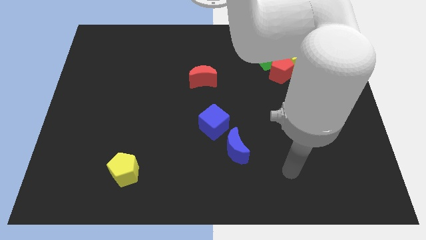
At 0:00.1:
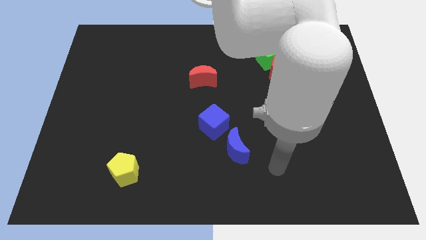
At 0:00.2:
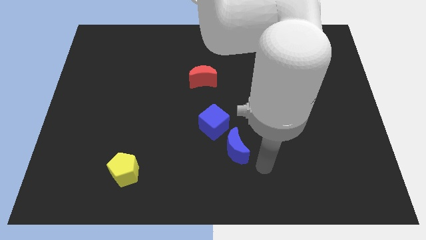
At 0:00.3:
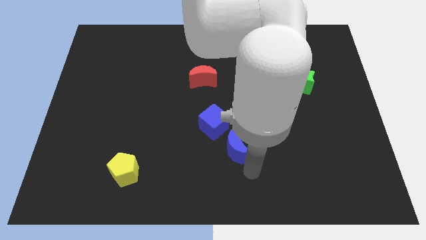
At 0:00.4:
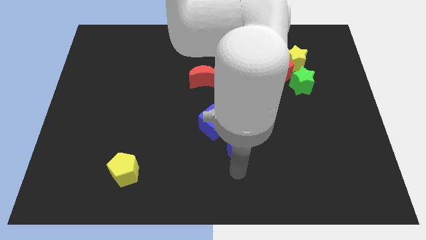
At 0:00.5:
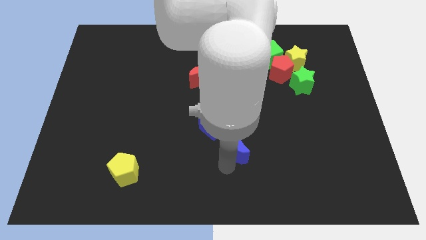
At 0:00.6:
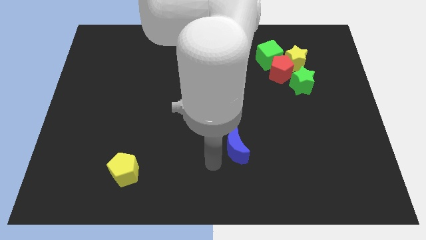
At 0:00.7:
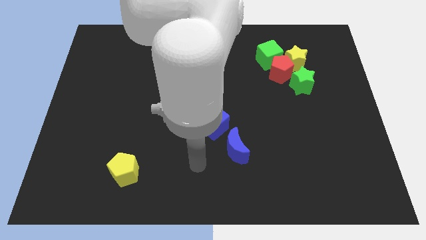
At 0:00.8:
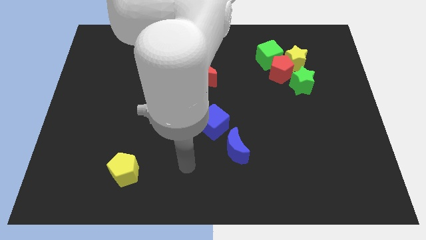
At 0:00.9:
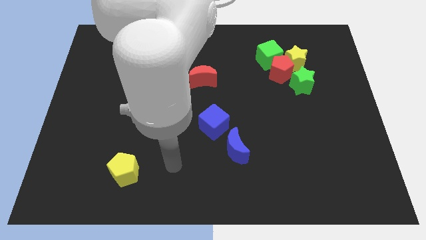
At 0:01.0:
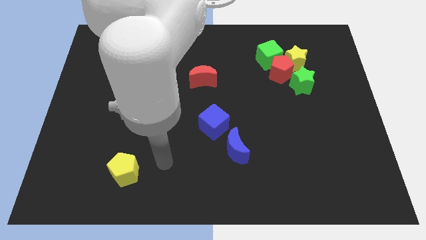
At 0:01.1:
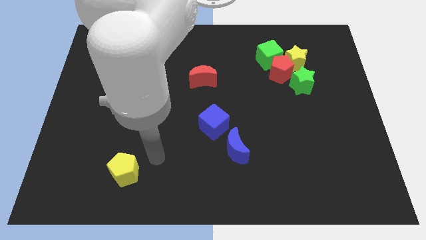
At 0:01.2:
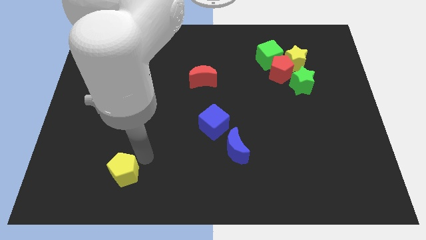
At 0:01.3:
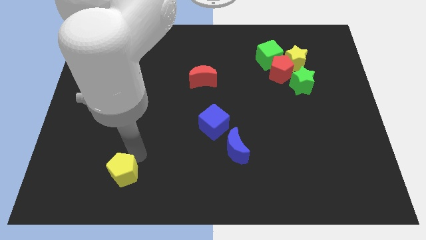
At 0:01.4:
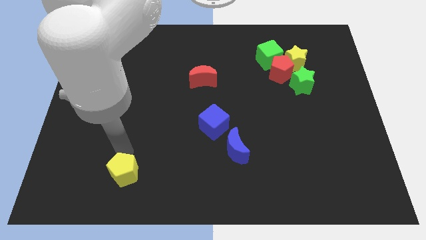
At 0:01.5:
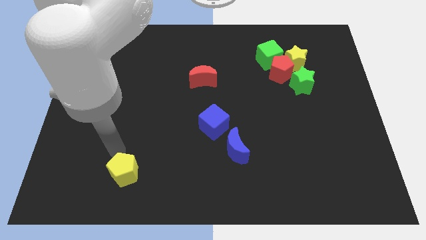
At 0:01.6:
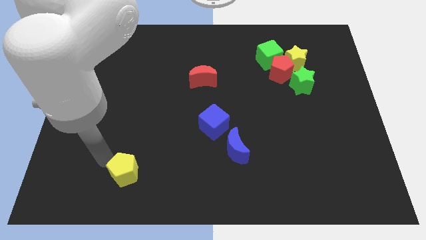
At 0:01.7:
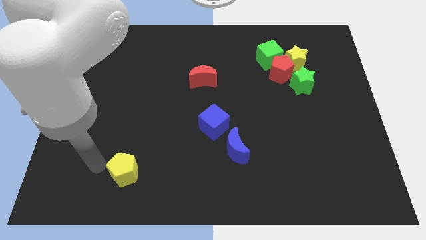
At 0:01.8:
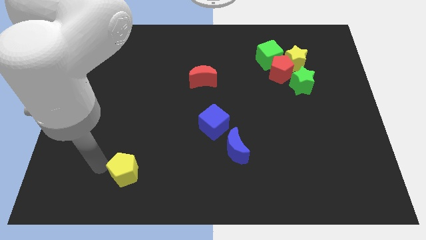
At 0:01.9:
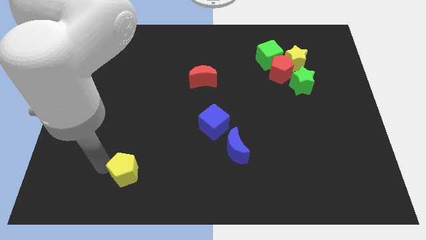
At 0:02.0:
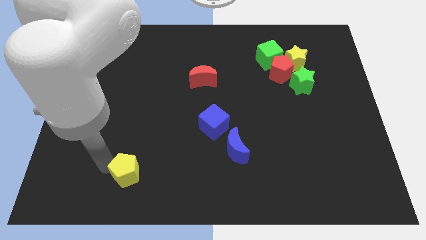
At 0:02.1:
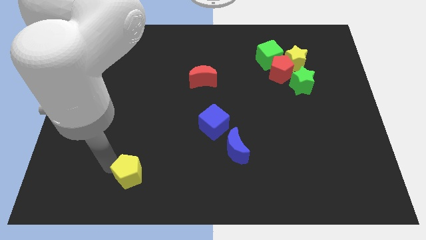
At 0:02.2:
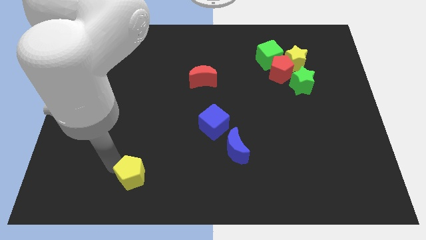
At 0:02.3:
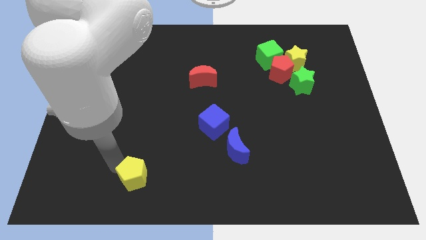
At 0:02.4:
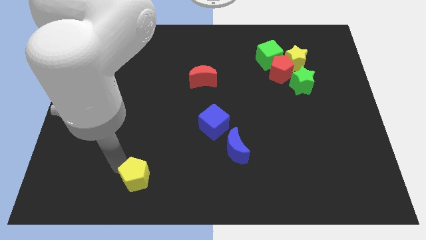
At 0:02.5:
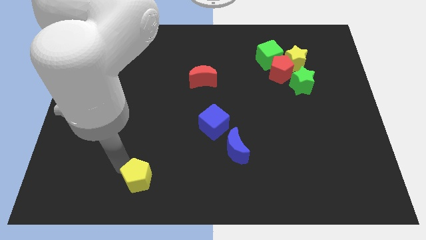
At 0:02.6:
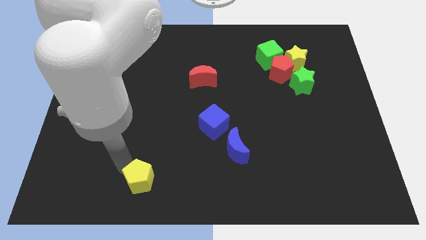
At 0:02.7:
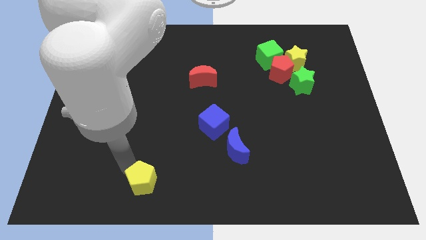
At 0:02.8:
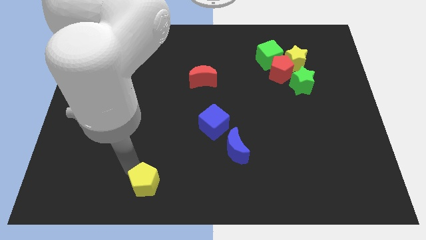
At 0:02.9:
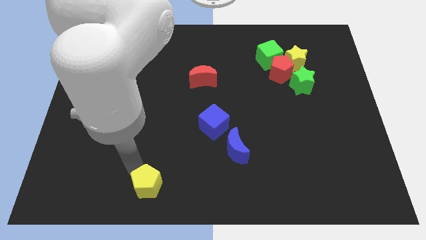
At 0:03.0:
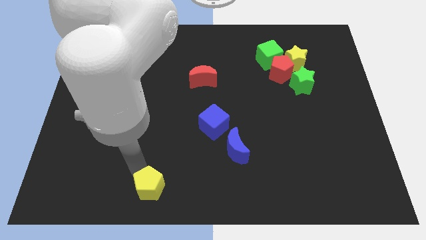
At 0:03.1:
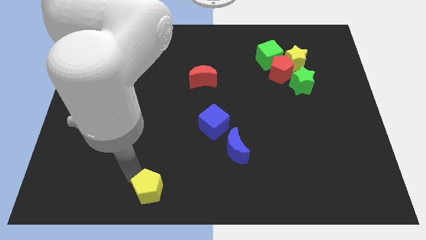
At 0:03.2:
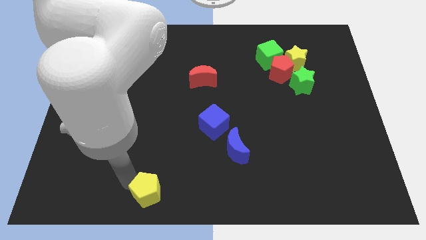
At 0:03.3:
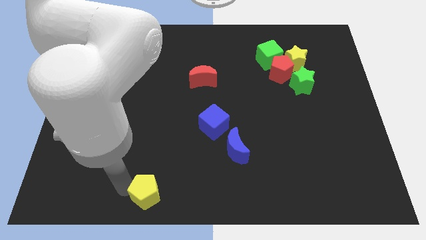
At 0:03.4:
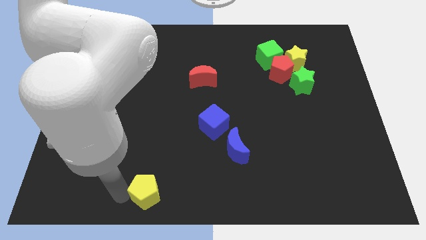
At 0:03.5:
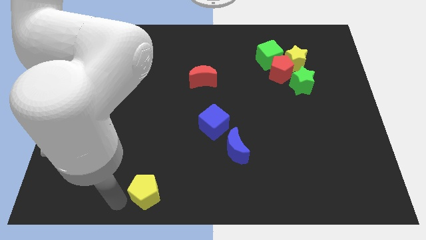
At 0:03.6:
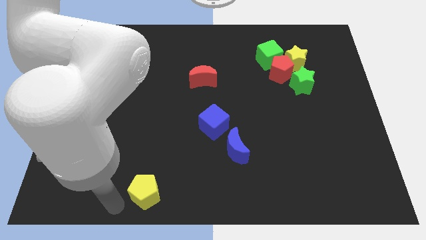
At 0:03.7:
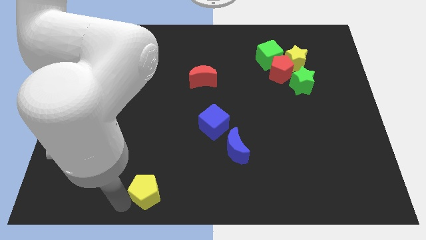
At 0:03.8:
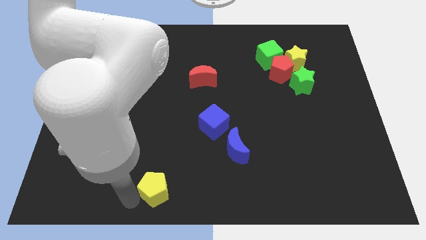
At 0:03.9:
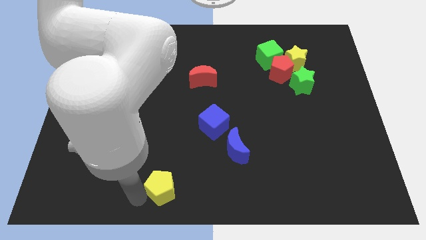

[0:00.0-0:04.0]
slightly slide the yellow pentagon right

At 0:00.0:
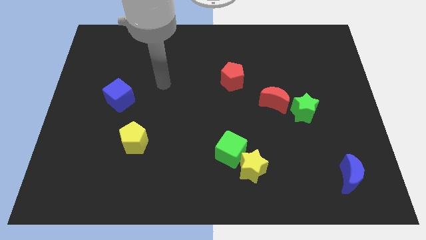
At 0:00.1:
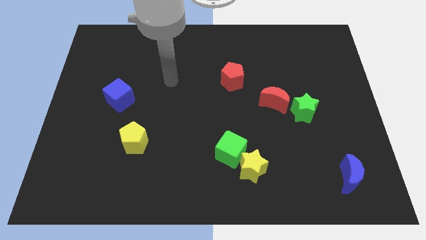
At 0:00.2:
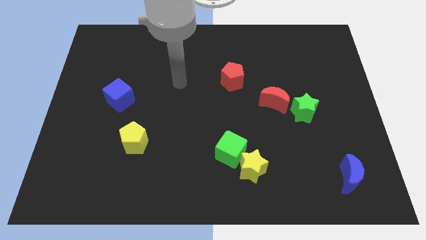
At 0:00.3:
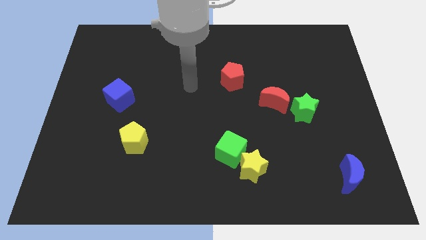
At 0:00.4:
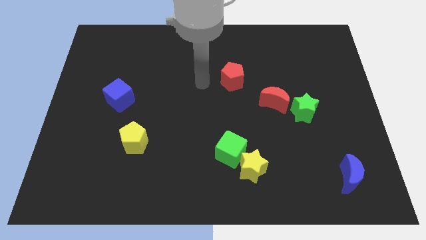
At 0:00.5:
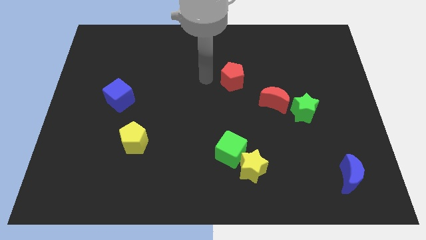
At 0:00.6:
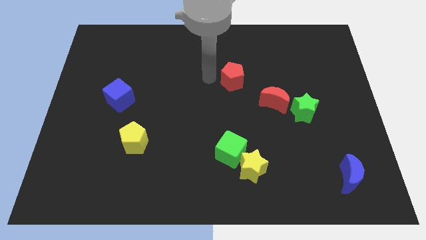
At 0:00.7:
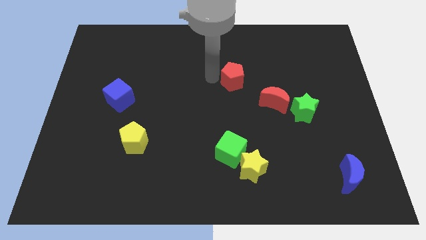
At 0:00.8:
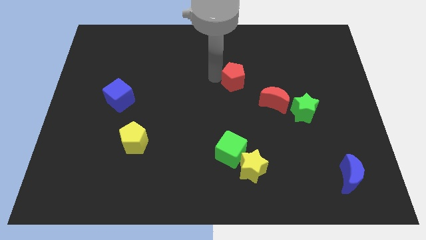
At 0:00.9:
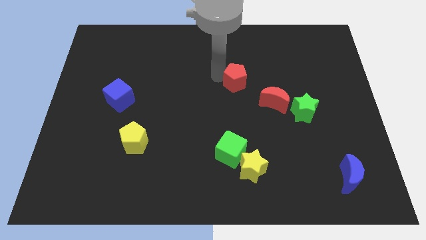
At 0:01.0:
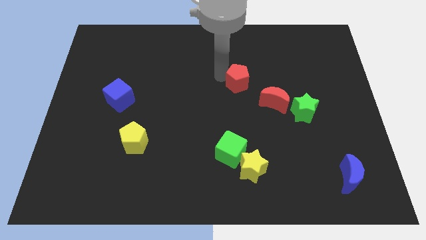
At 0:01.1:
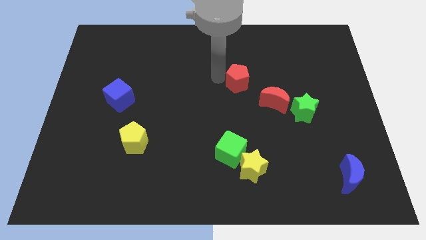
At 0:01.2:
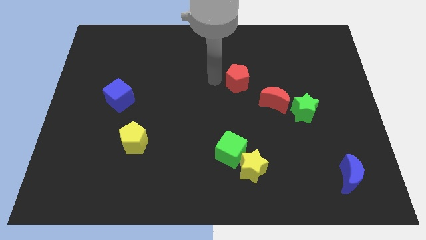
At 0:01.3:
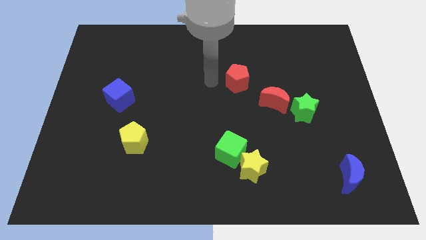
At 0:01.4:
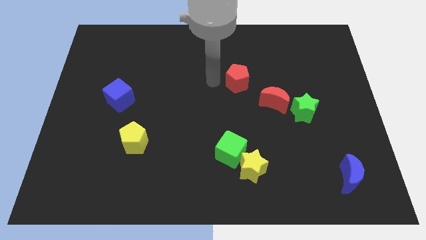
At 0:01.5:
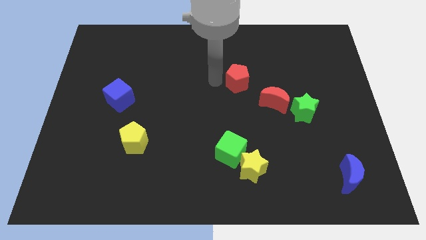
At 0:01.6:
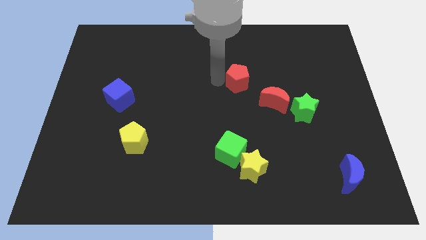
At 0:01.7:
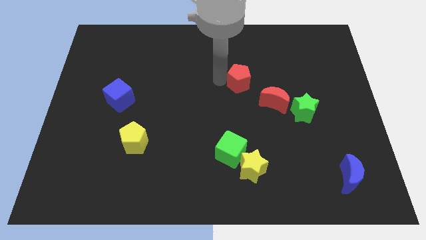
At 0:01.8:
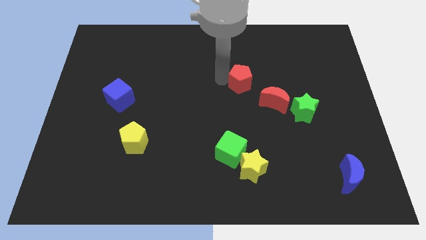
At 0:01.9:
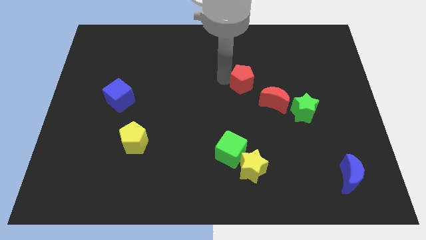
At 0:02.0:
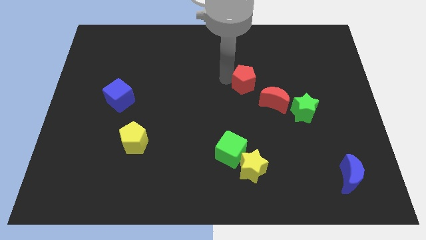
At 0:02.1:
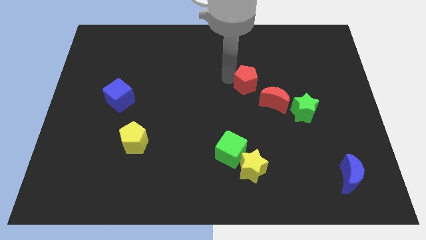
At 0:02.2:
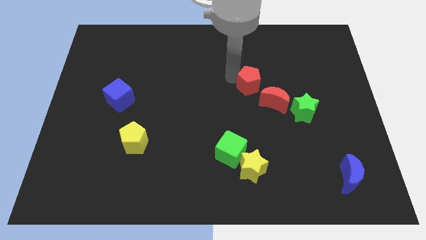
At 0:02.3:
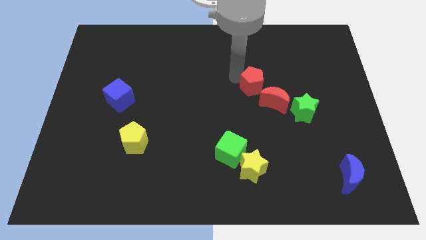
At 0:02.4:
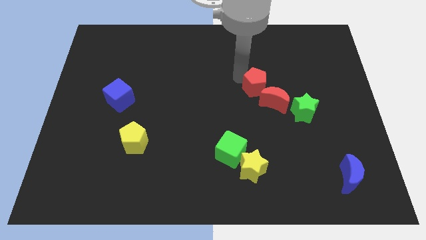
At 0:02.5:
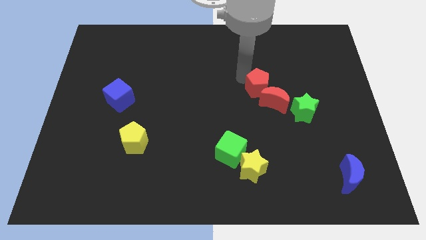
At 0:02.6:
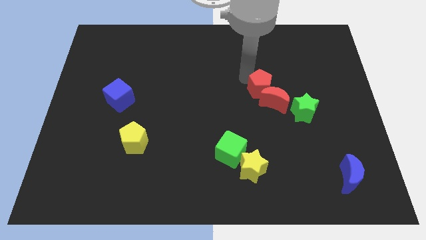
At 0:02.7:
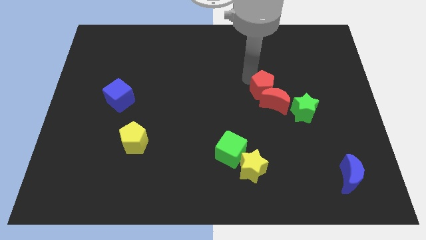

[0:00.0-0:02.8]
slightly push the red pentagon to the right

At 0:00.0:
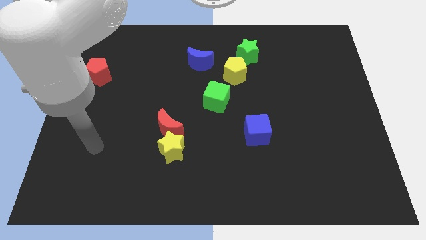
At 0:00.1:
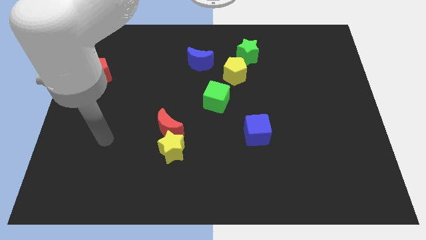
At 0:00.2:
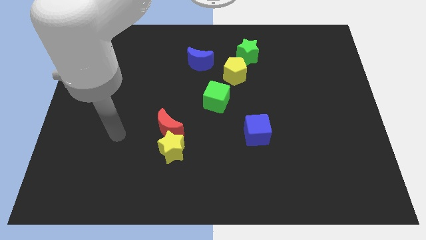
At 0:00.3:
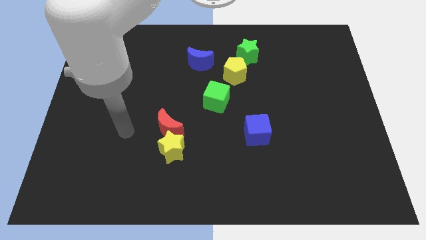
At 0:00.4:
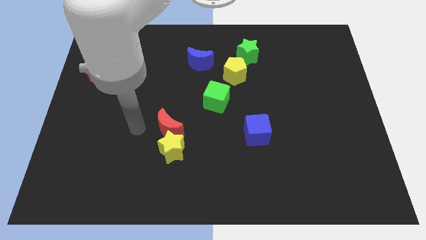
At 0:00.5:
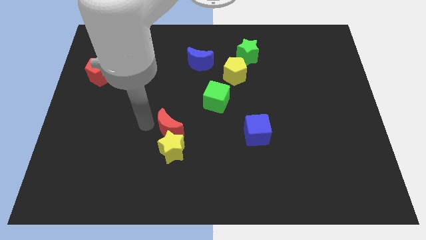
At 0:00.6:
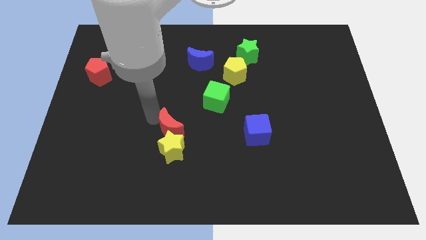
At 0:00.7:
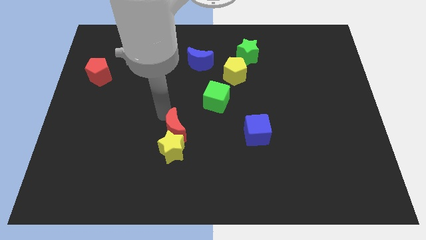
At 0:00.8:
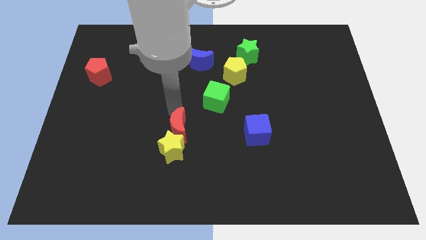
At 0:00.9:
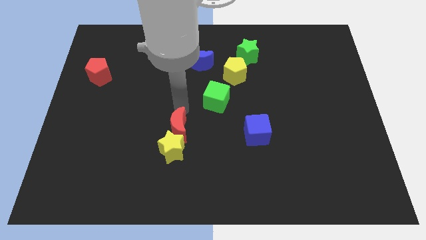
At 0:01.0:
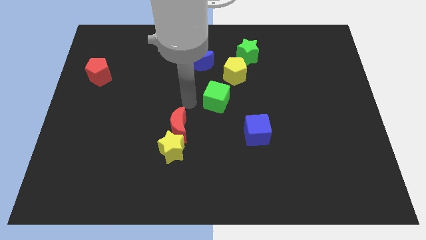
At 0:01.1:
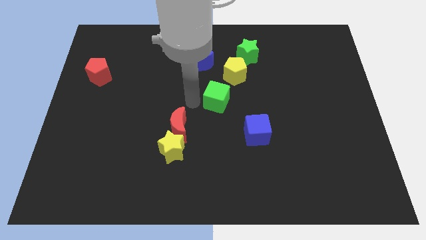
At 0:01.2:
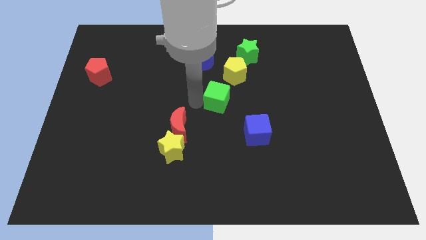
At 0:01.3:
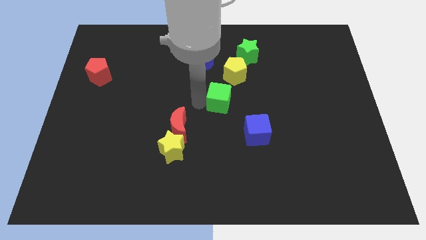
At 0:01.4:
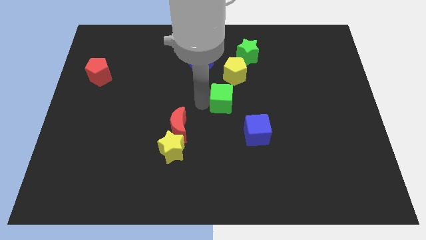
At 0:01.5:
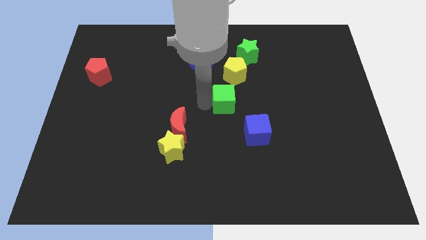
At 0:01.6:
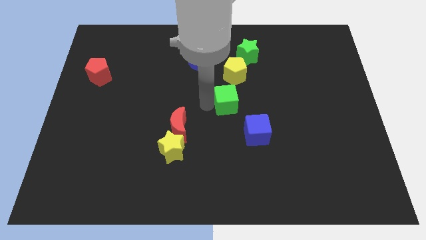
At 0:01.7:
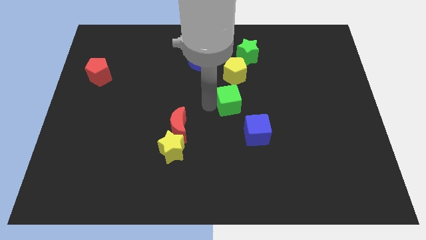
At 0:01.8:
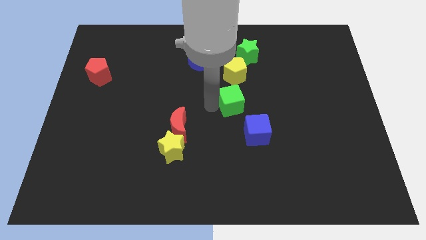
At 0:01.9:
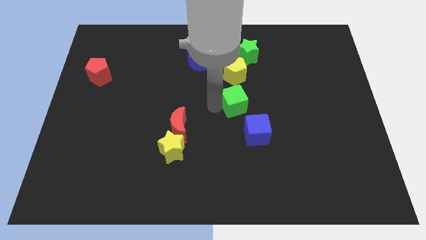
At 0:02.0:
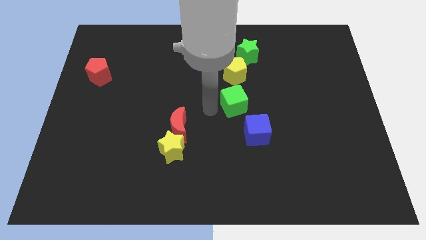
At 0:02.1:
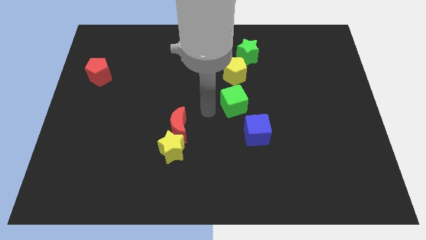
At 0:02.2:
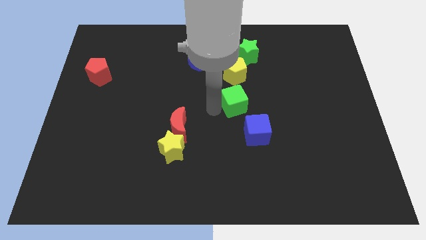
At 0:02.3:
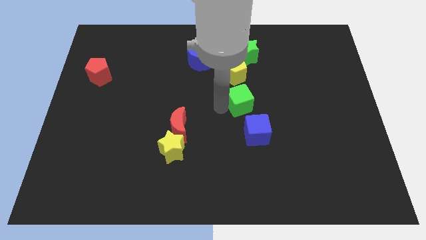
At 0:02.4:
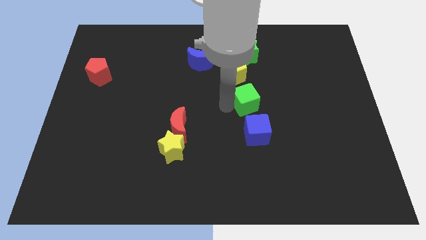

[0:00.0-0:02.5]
slightly move the green cube right
